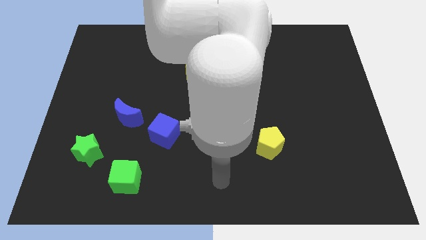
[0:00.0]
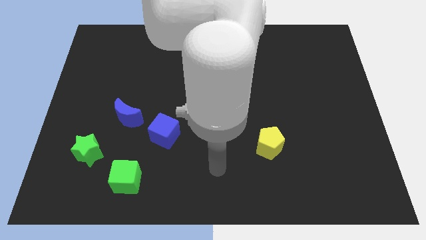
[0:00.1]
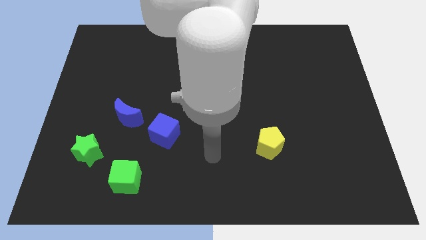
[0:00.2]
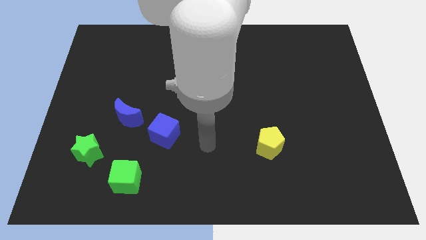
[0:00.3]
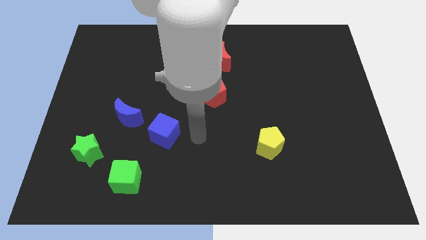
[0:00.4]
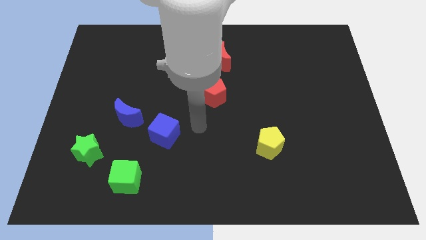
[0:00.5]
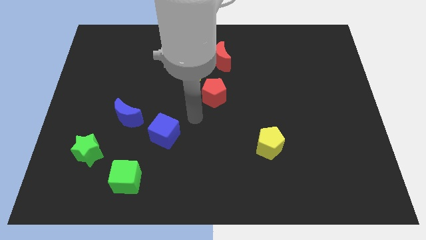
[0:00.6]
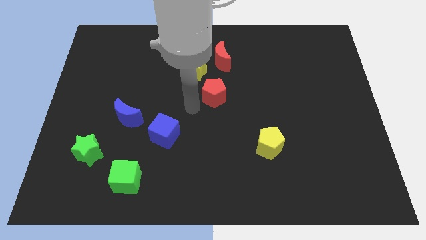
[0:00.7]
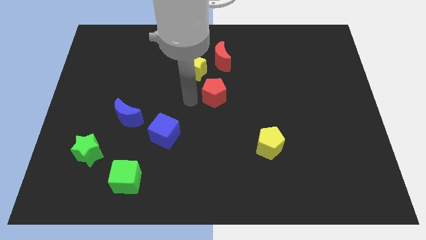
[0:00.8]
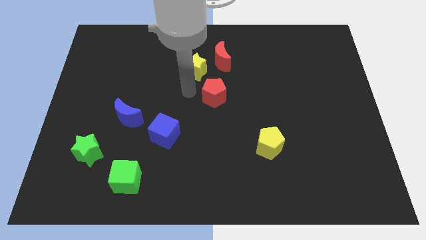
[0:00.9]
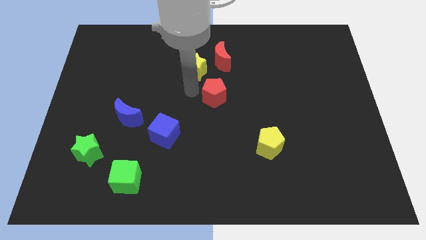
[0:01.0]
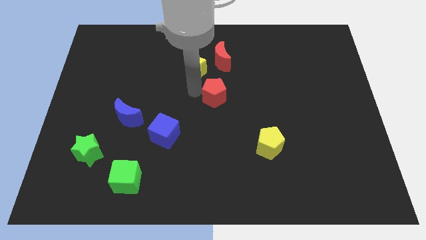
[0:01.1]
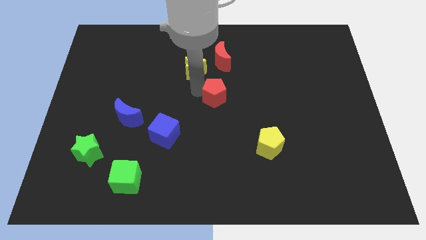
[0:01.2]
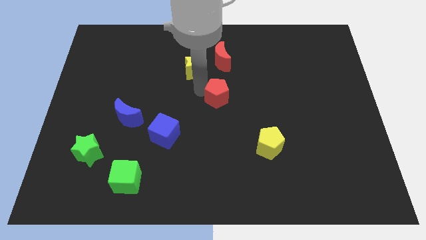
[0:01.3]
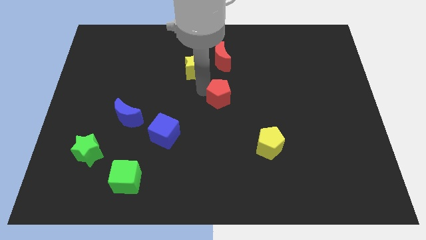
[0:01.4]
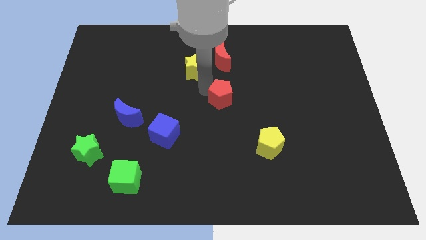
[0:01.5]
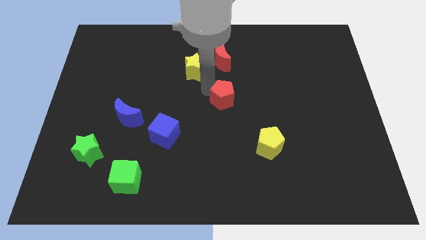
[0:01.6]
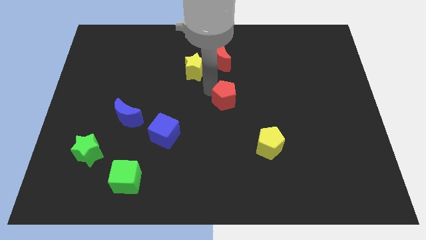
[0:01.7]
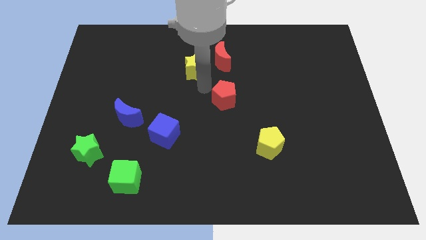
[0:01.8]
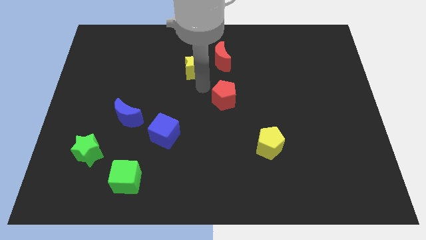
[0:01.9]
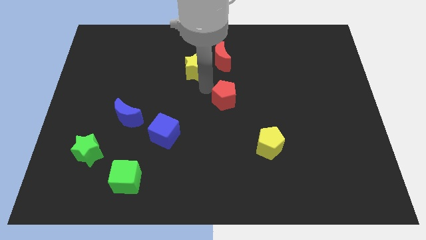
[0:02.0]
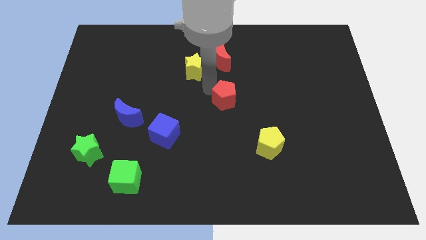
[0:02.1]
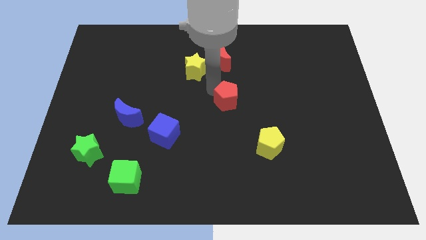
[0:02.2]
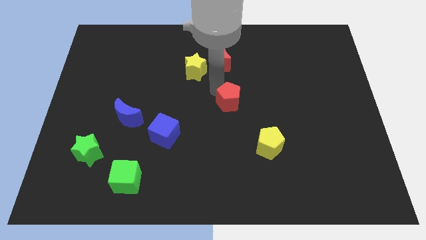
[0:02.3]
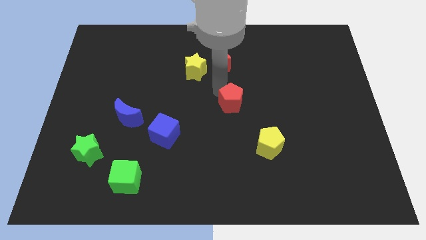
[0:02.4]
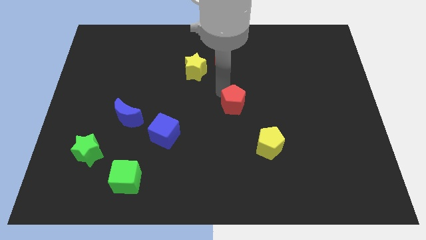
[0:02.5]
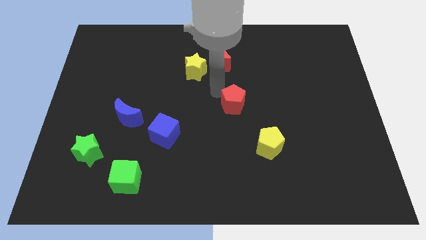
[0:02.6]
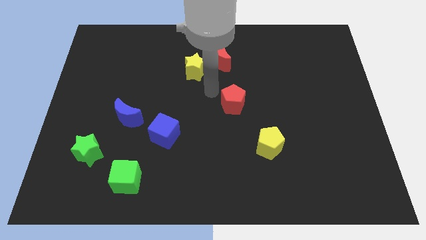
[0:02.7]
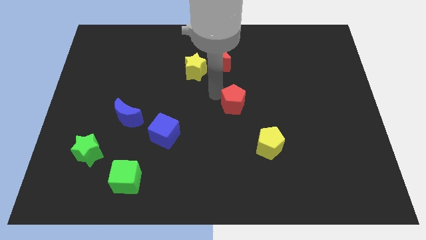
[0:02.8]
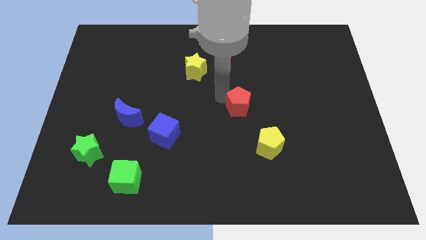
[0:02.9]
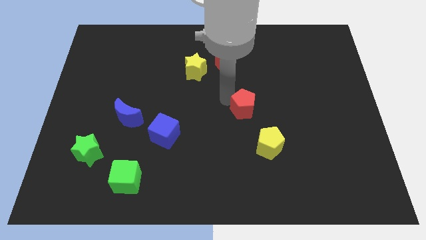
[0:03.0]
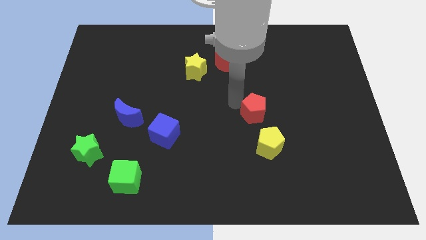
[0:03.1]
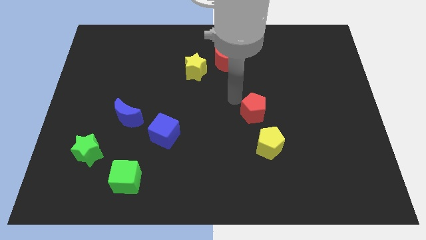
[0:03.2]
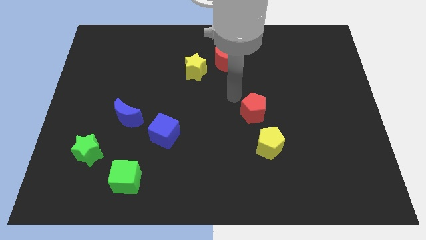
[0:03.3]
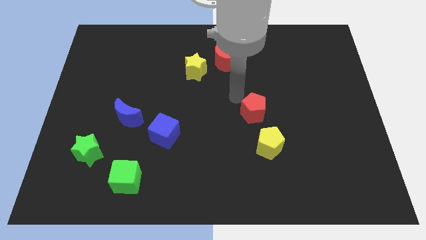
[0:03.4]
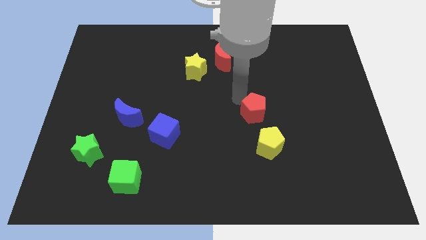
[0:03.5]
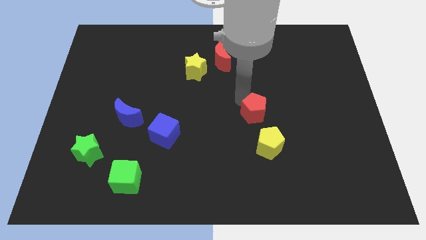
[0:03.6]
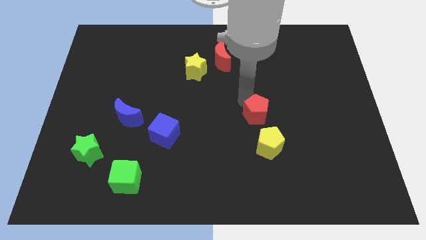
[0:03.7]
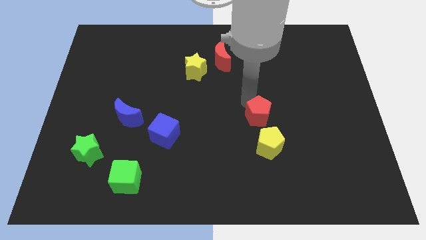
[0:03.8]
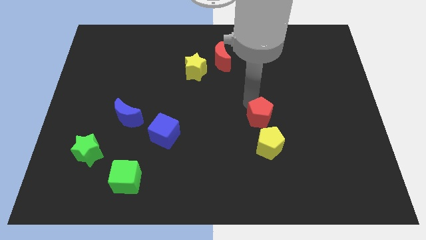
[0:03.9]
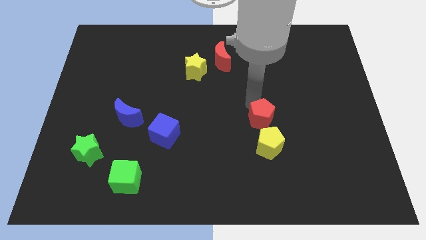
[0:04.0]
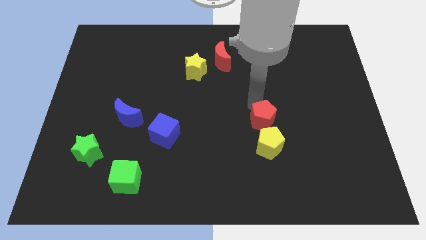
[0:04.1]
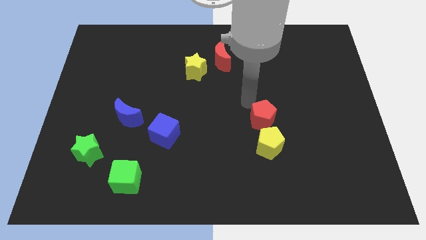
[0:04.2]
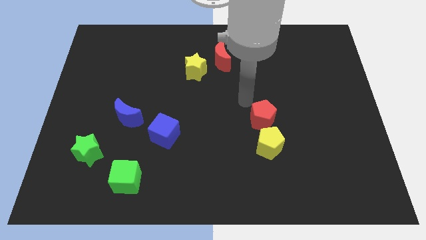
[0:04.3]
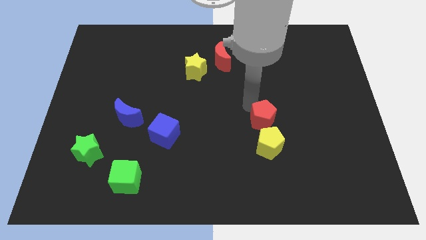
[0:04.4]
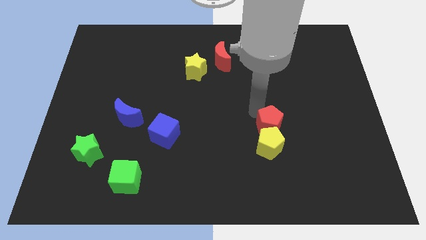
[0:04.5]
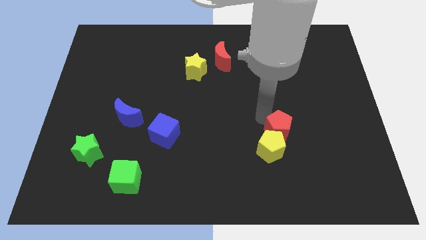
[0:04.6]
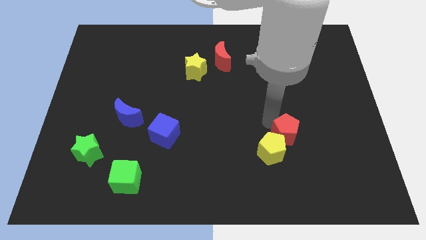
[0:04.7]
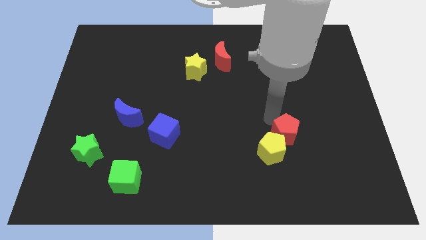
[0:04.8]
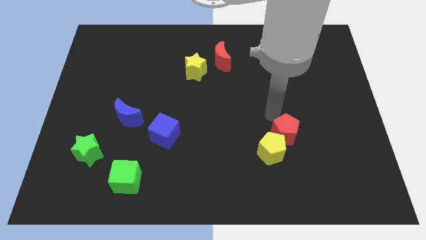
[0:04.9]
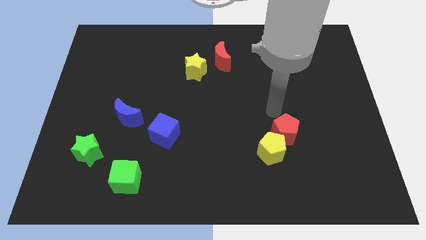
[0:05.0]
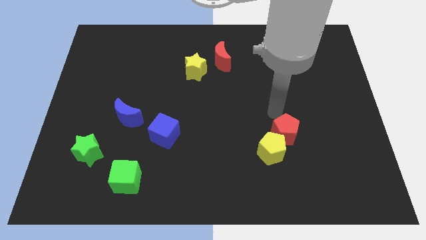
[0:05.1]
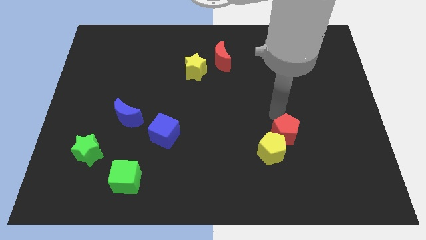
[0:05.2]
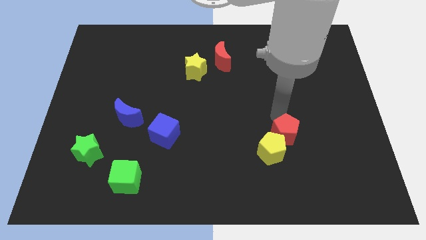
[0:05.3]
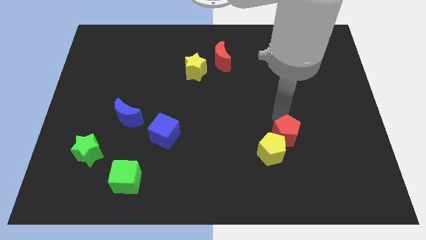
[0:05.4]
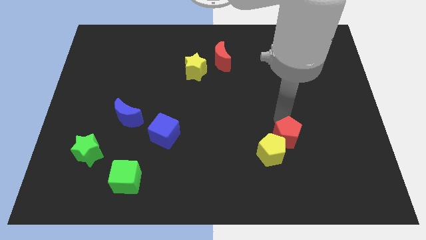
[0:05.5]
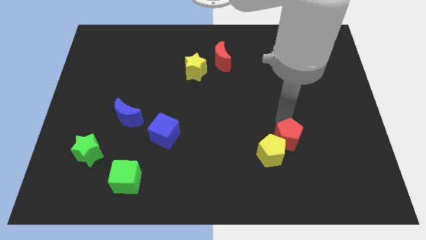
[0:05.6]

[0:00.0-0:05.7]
slide the red pentagon down and to the right diagonally

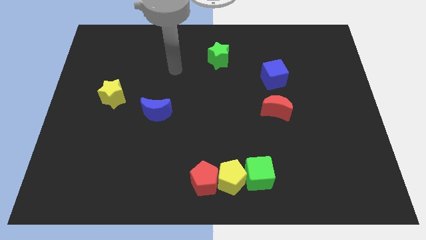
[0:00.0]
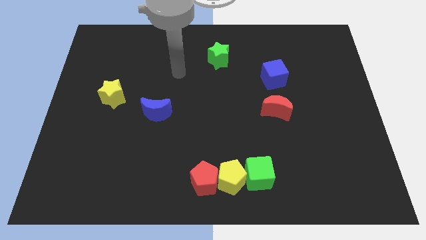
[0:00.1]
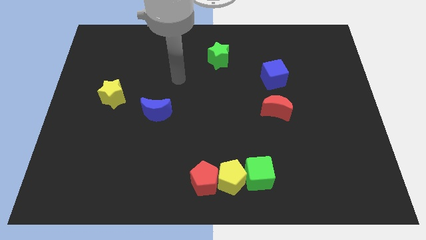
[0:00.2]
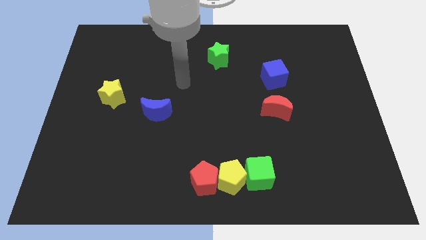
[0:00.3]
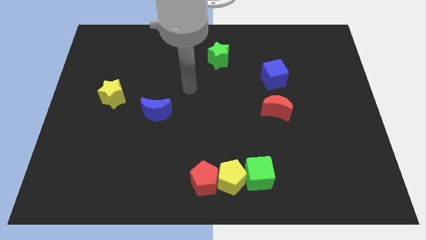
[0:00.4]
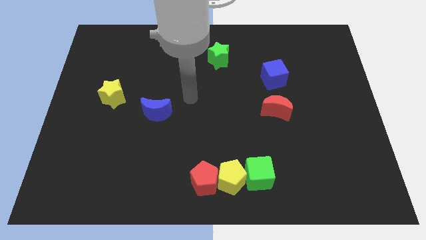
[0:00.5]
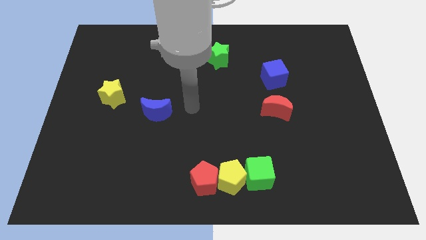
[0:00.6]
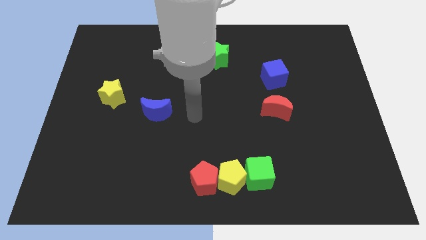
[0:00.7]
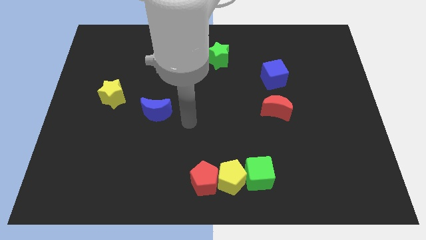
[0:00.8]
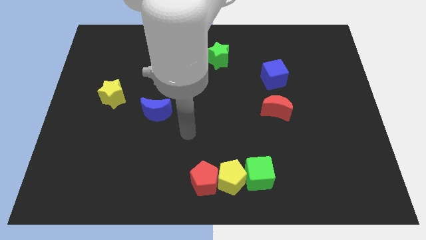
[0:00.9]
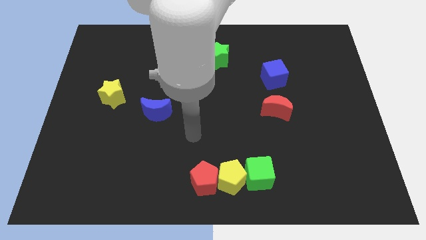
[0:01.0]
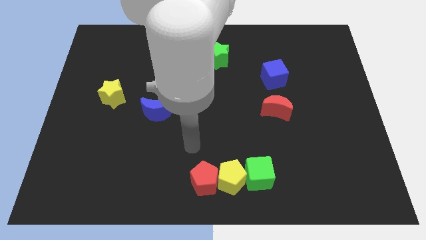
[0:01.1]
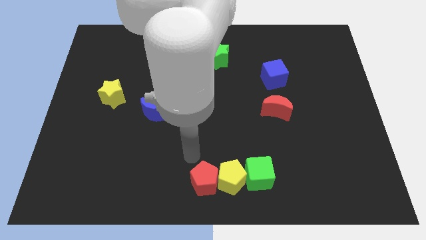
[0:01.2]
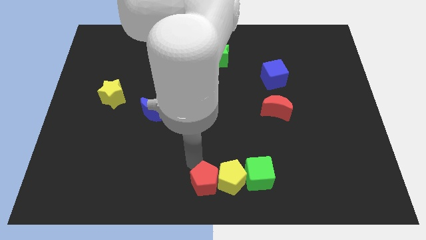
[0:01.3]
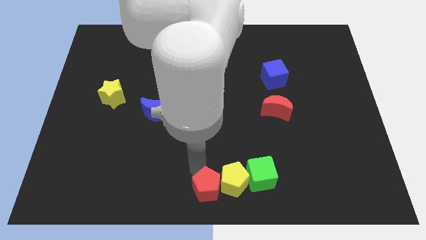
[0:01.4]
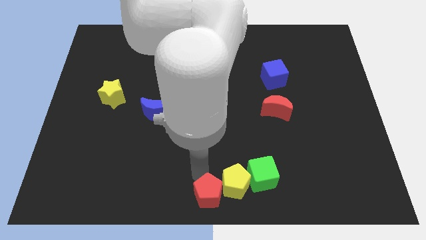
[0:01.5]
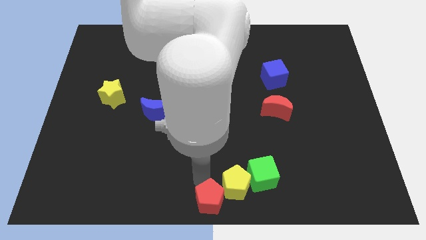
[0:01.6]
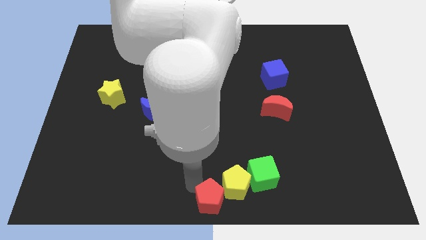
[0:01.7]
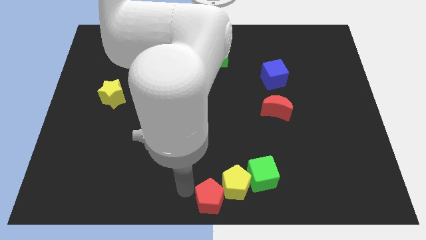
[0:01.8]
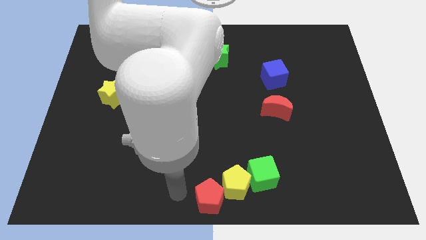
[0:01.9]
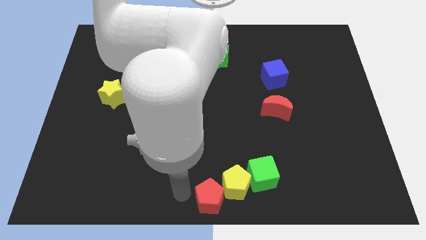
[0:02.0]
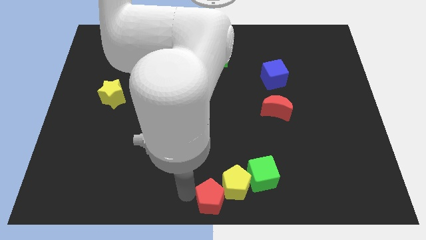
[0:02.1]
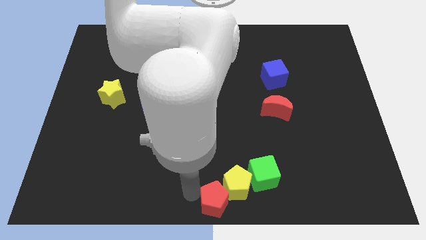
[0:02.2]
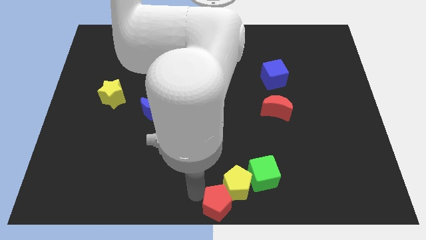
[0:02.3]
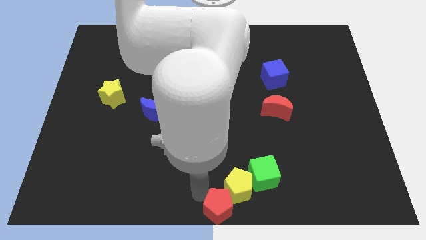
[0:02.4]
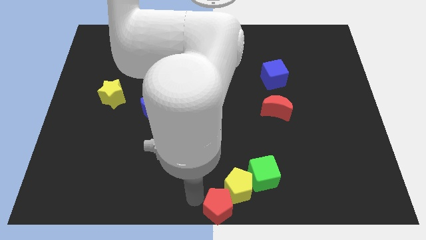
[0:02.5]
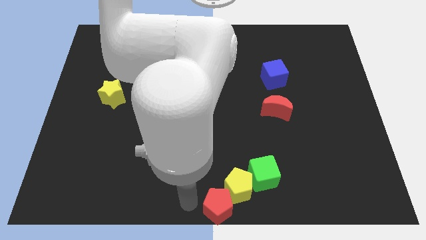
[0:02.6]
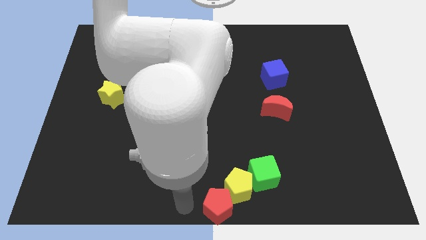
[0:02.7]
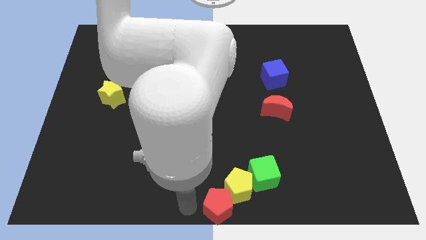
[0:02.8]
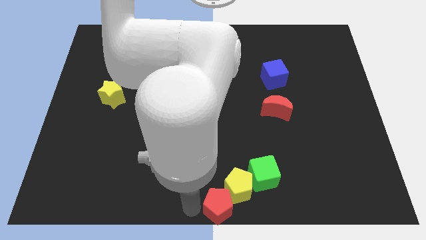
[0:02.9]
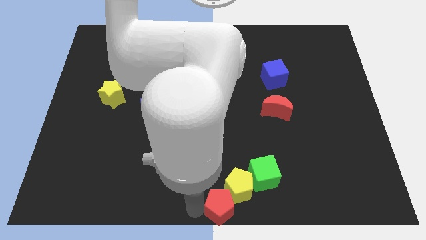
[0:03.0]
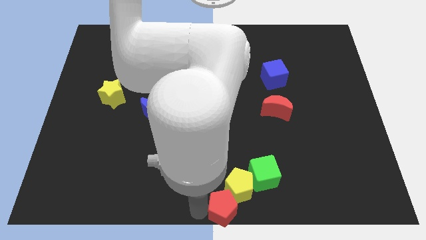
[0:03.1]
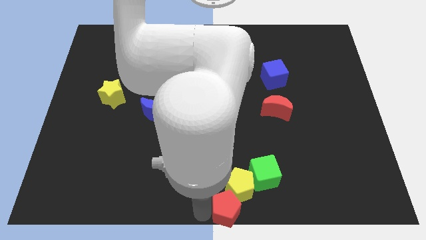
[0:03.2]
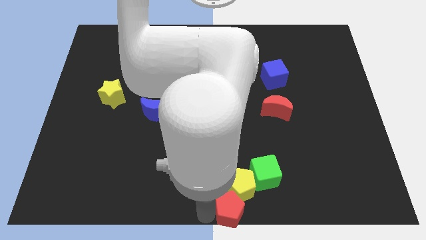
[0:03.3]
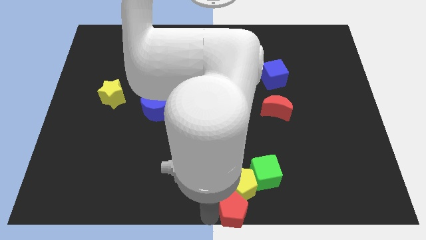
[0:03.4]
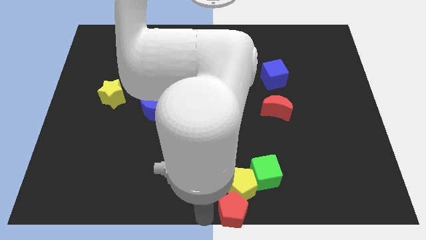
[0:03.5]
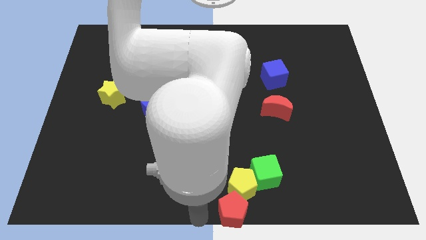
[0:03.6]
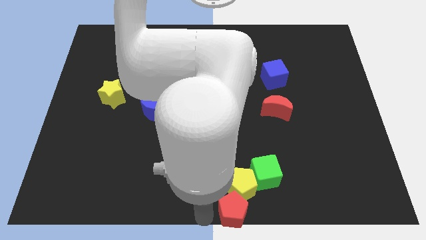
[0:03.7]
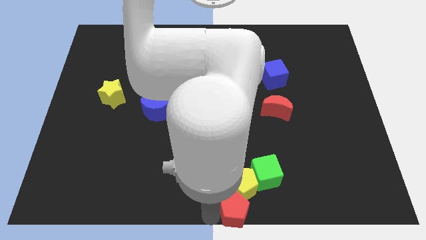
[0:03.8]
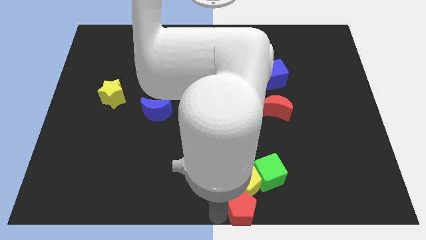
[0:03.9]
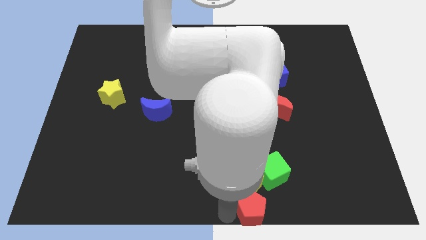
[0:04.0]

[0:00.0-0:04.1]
slide the red pentagon to the right a bit
